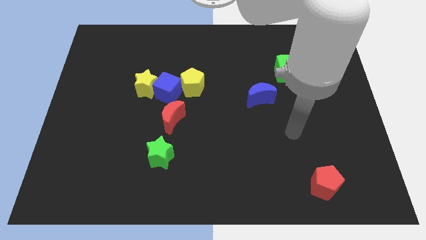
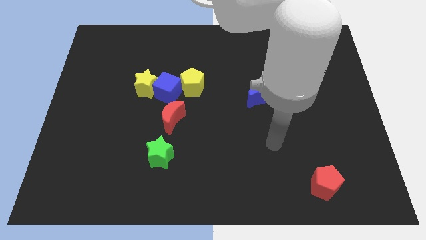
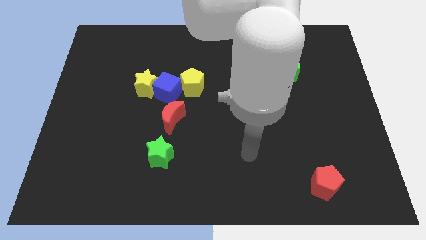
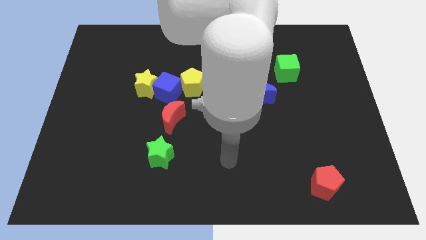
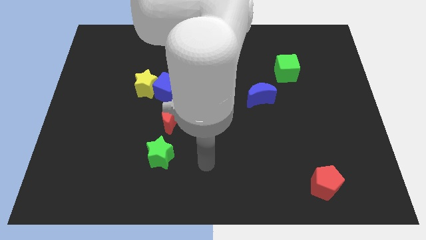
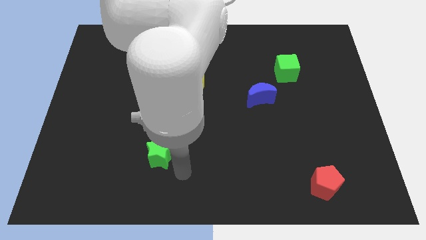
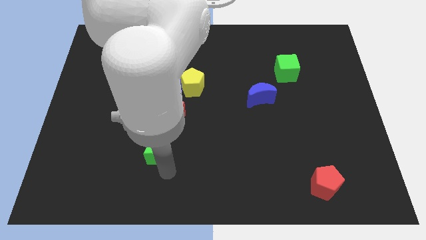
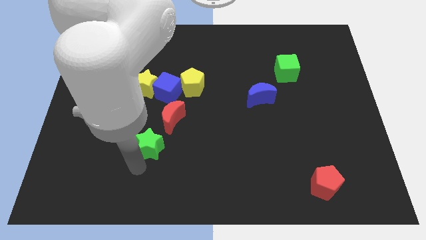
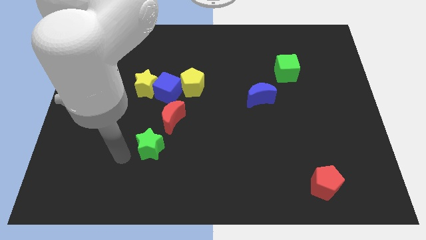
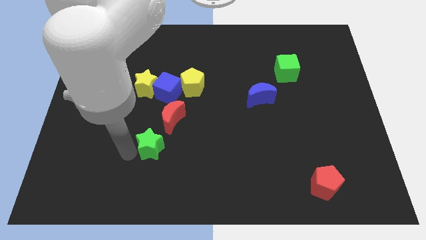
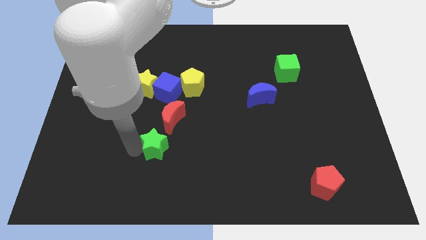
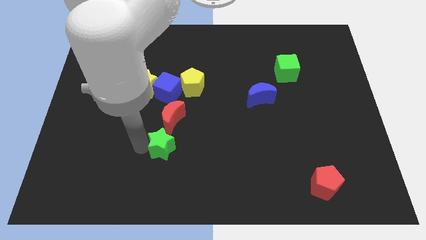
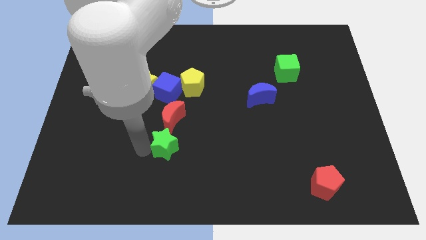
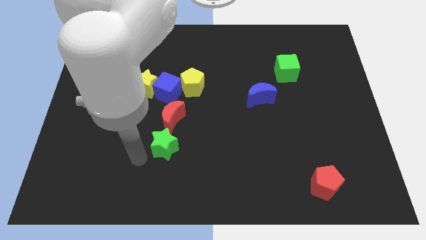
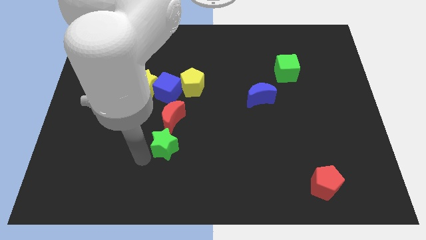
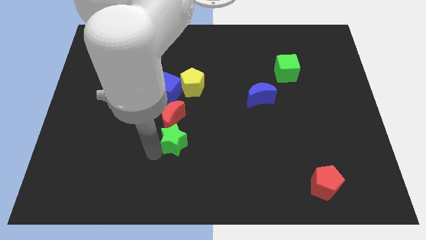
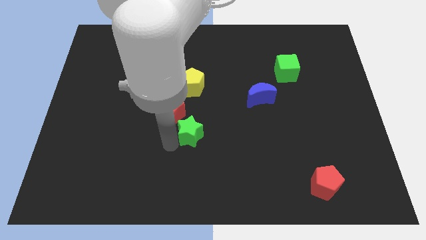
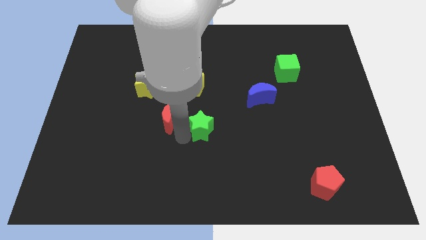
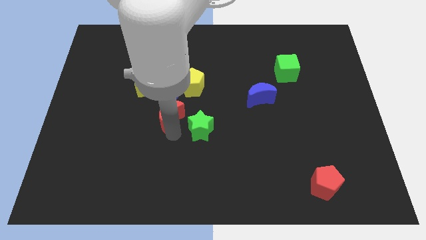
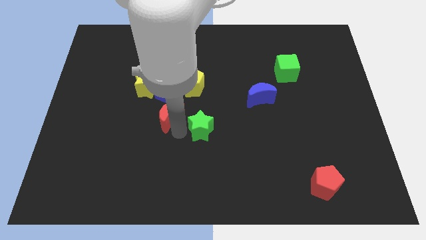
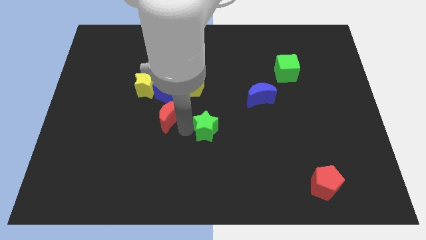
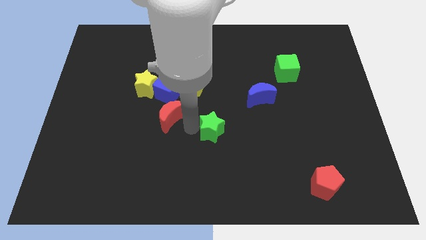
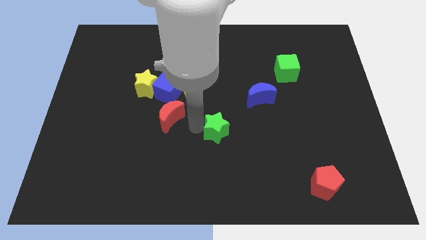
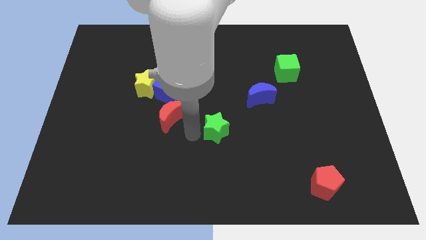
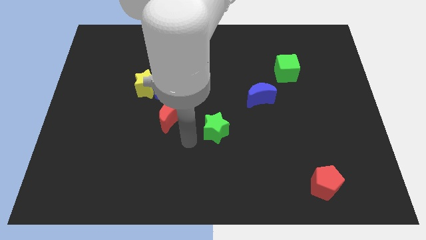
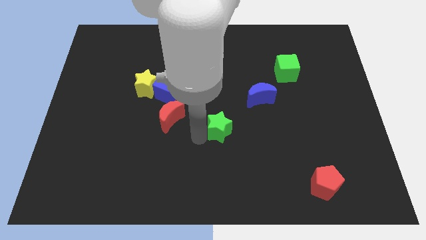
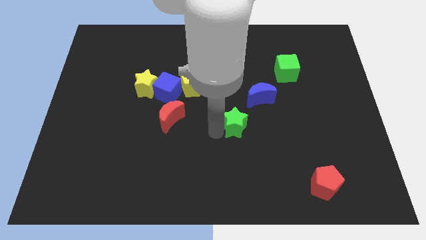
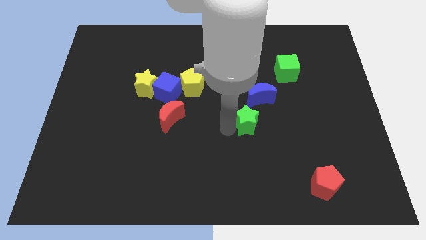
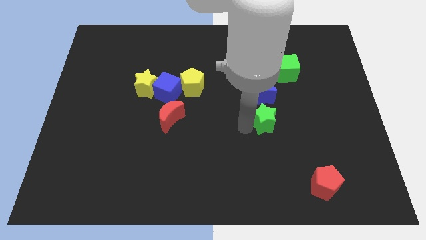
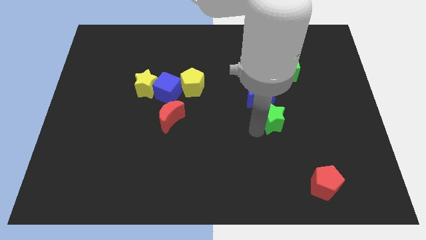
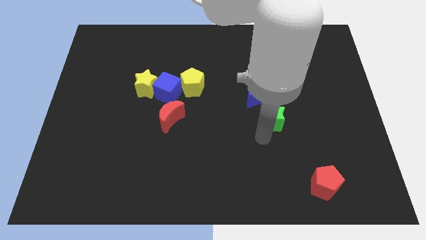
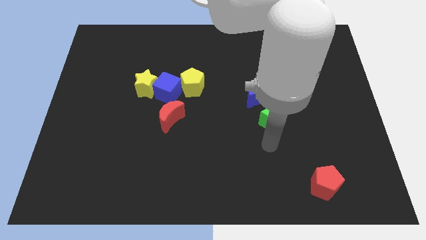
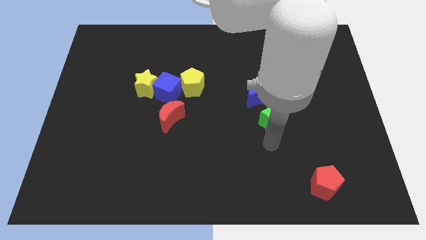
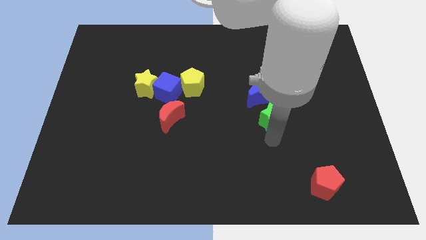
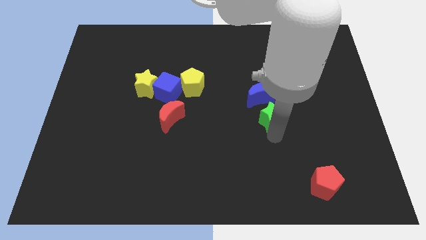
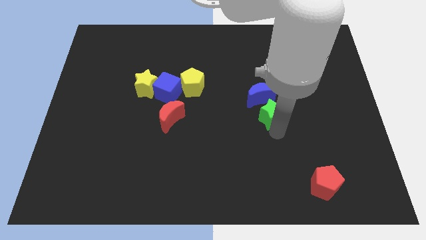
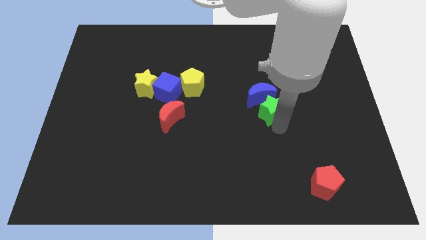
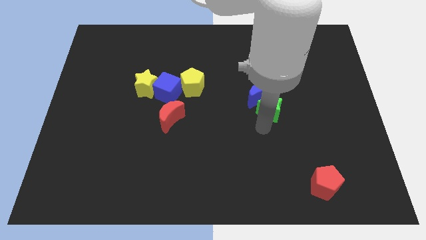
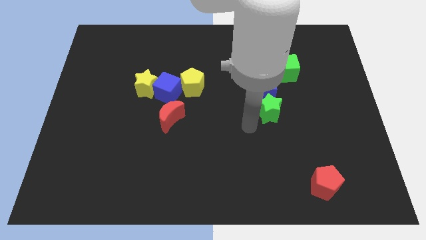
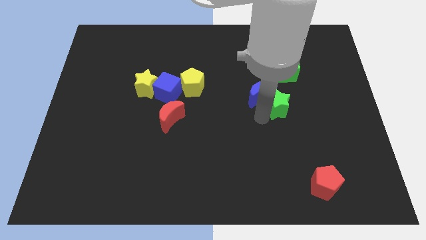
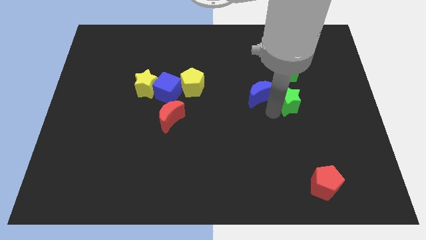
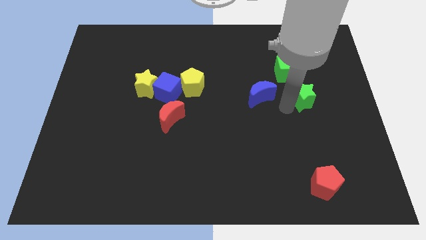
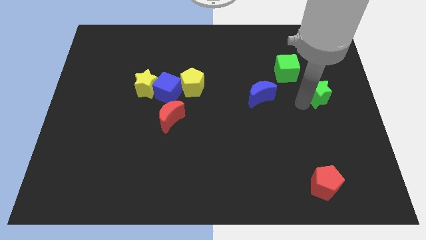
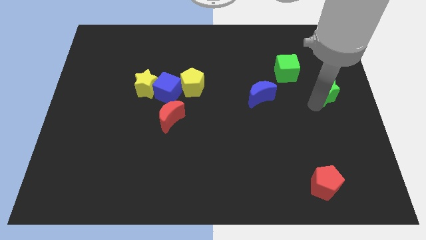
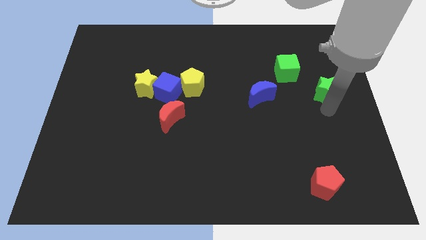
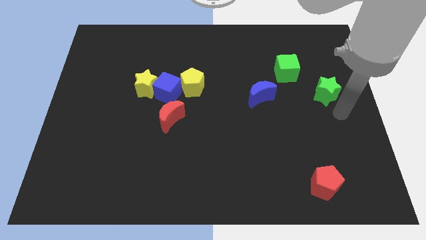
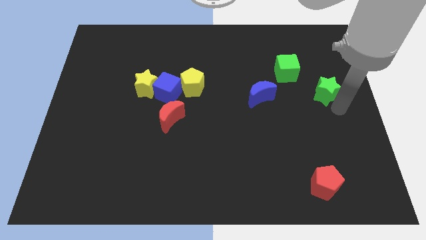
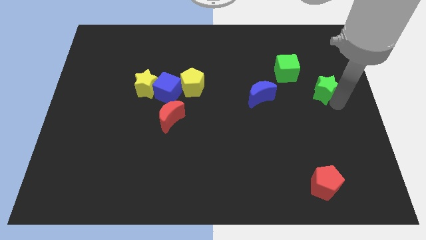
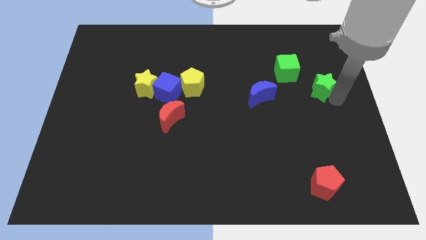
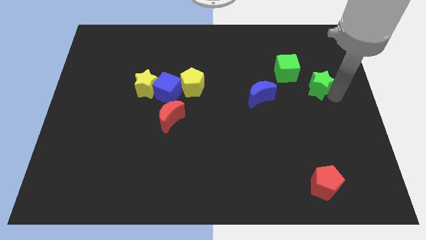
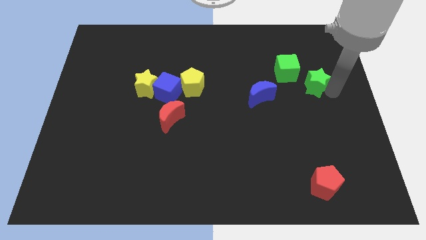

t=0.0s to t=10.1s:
put the green star to the right side of the green cube
